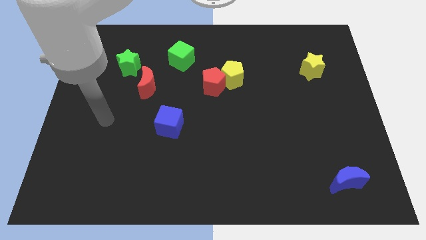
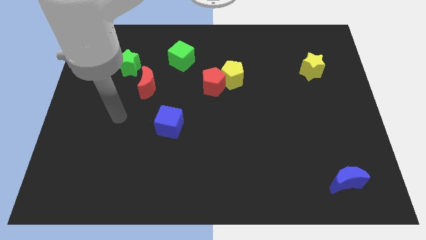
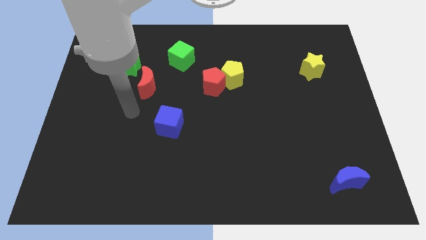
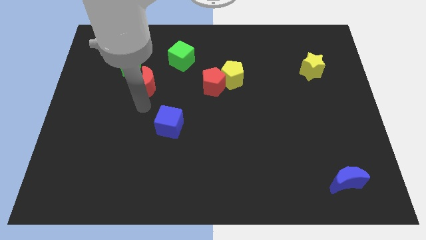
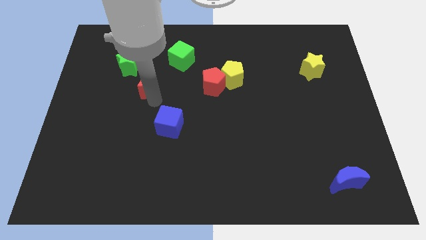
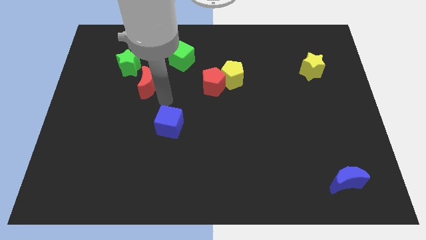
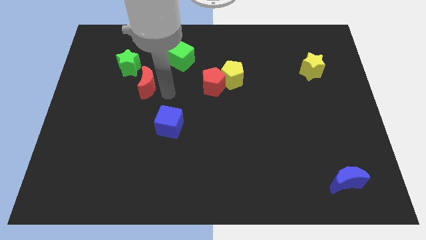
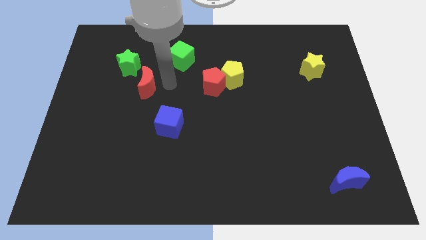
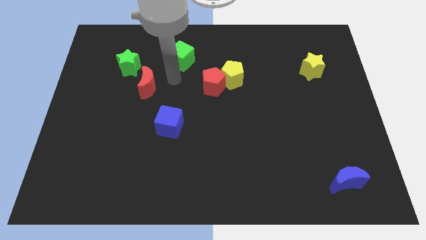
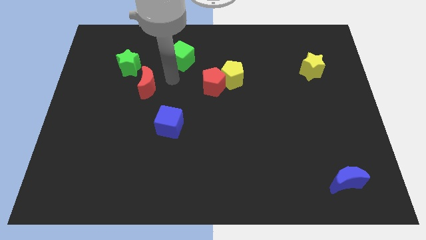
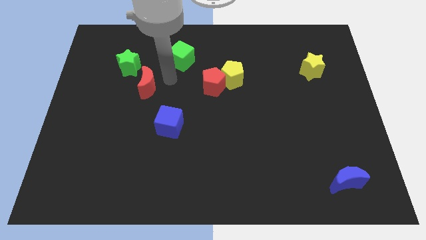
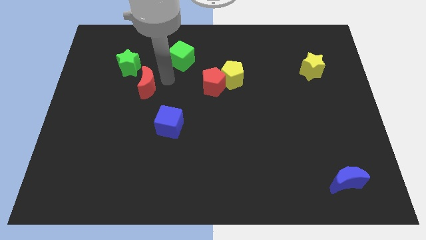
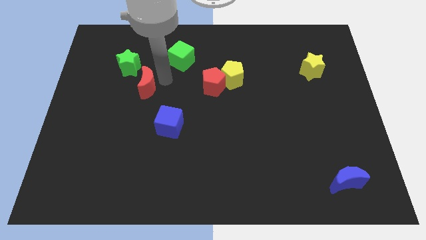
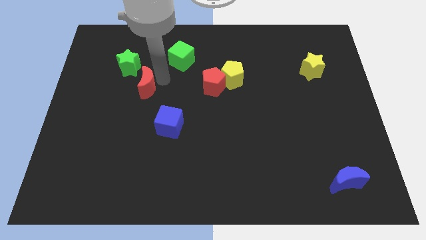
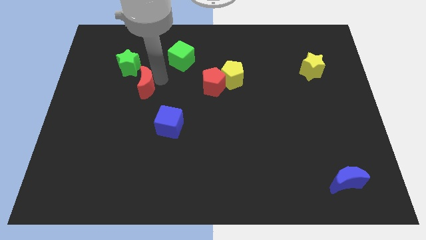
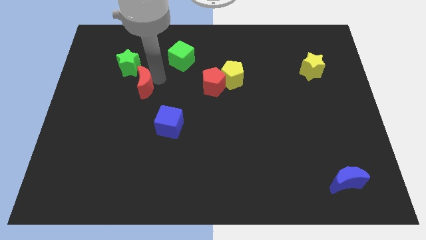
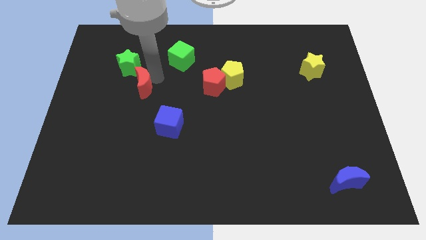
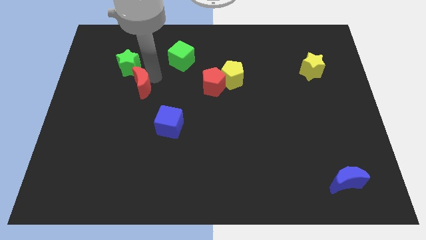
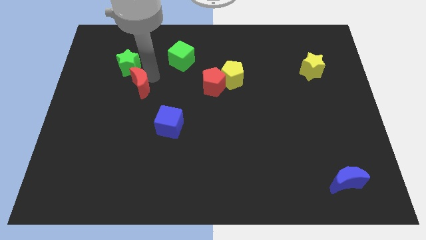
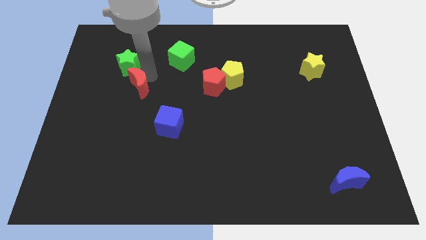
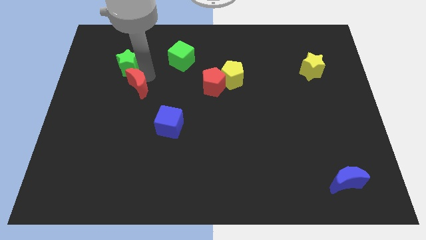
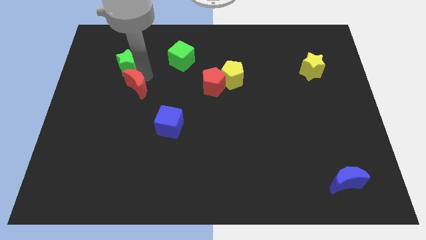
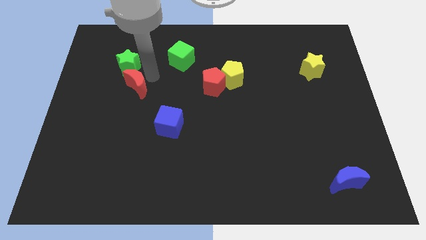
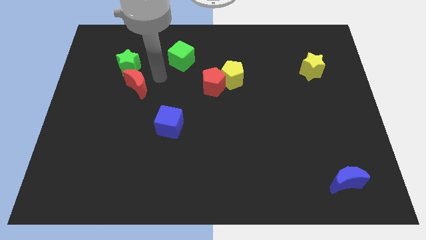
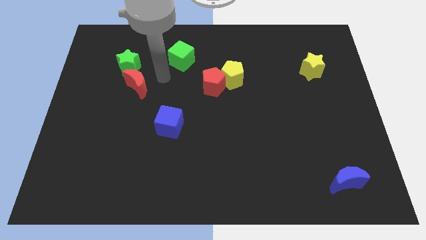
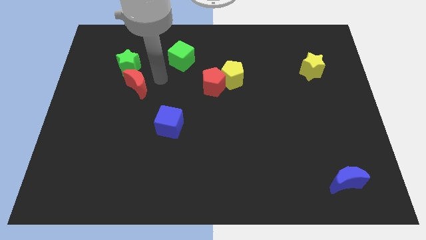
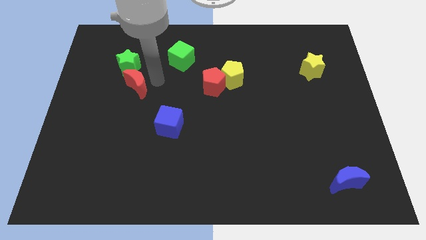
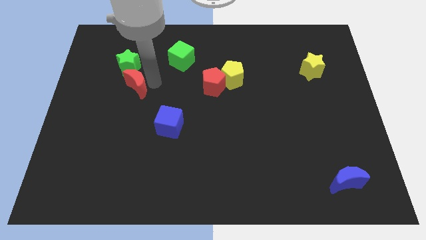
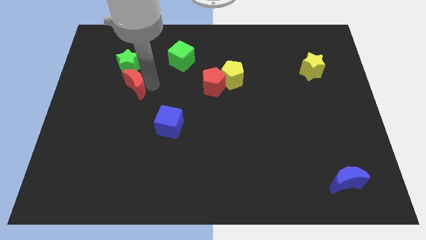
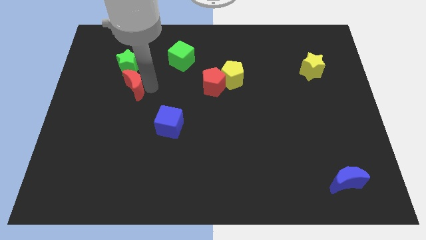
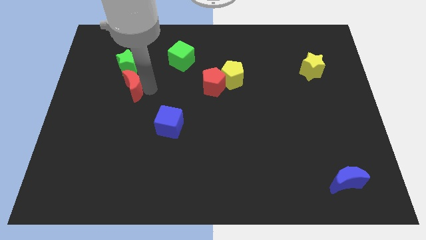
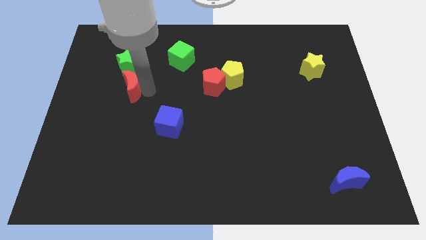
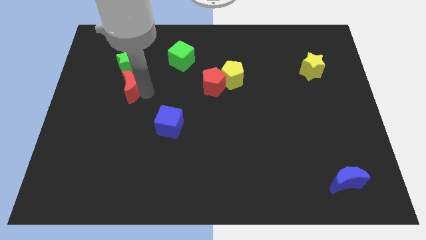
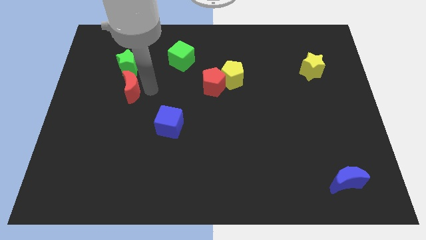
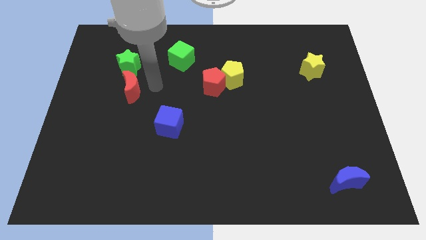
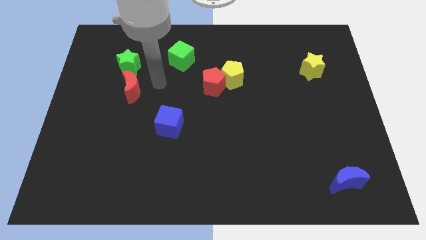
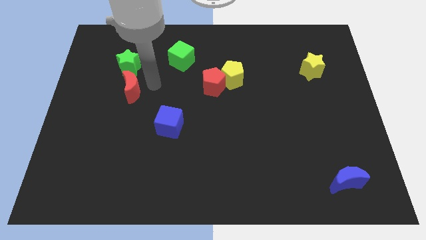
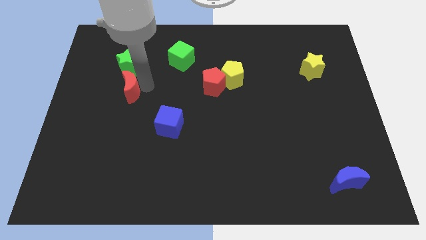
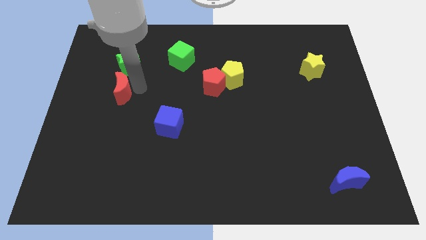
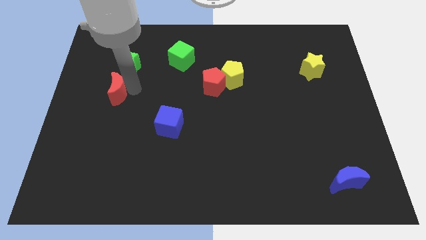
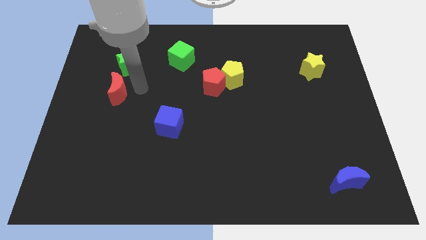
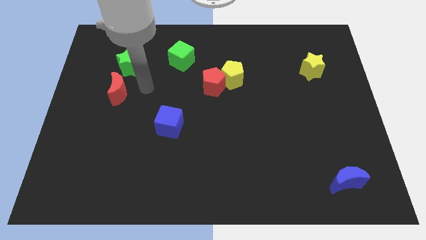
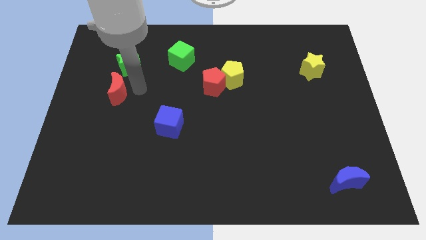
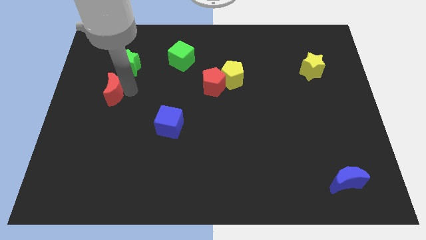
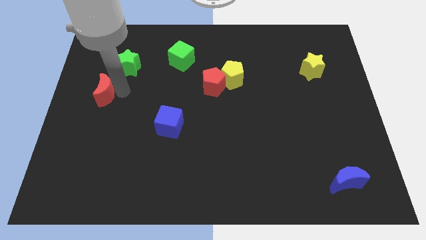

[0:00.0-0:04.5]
move the red moon to the center left

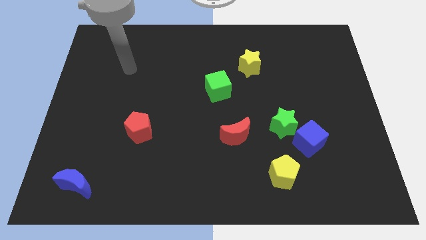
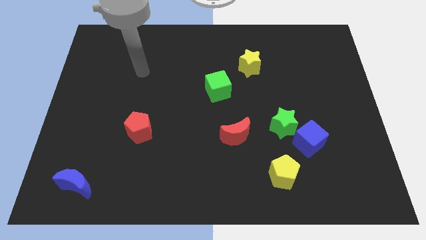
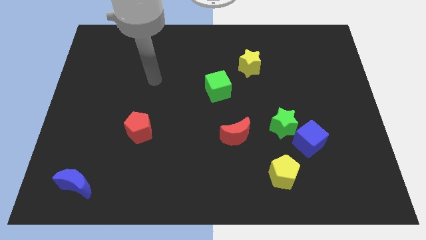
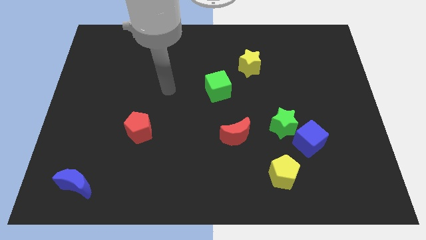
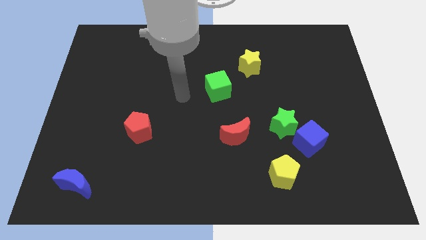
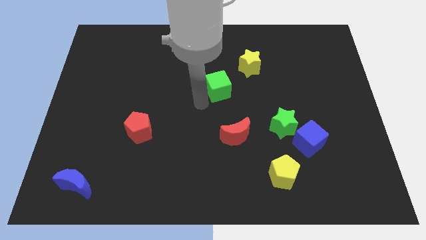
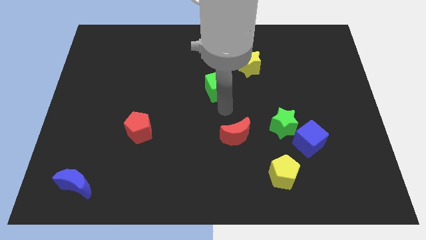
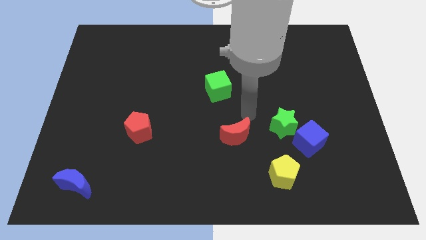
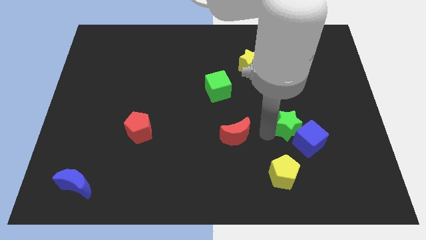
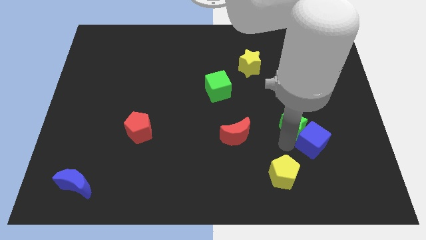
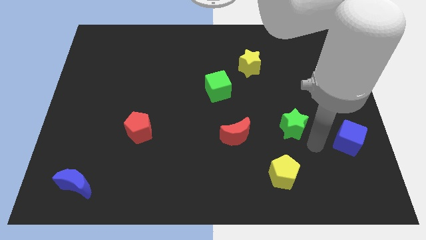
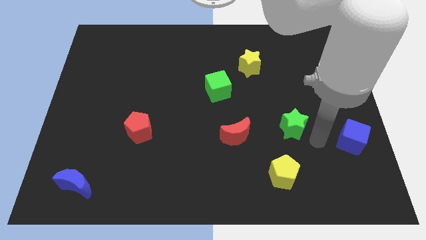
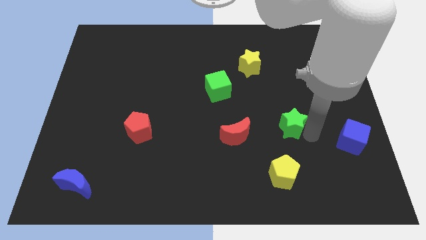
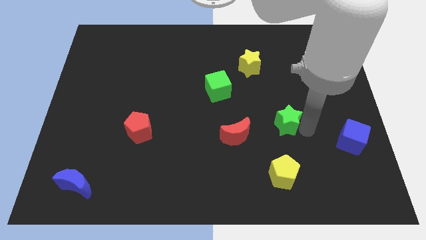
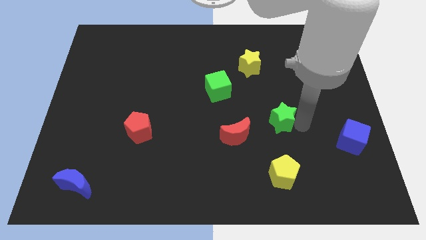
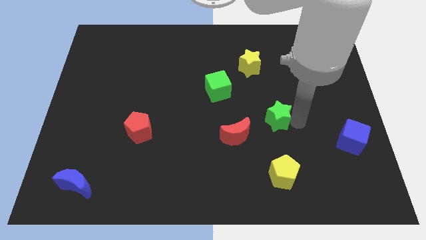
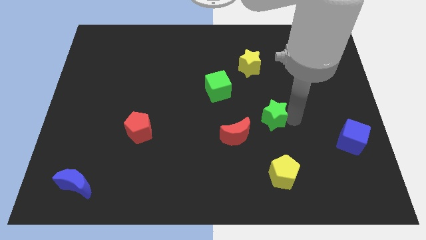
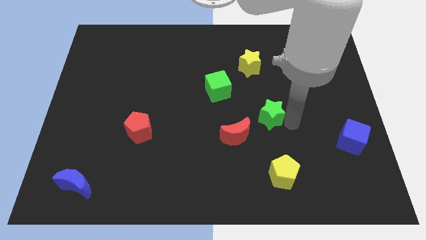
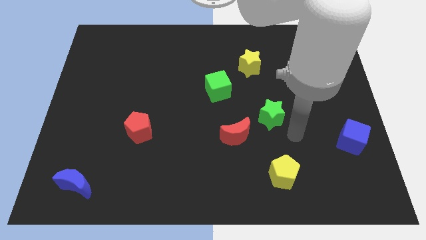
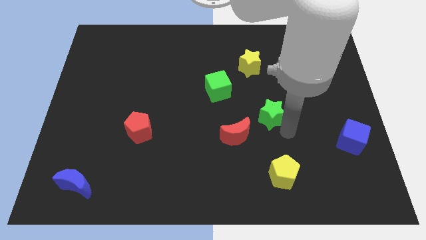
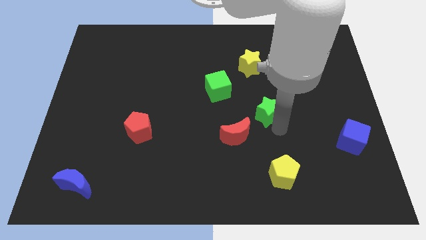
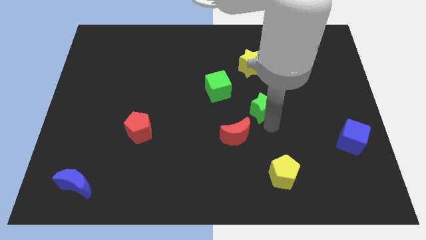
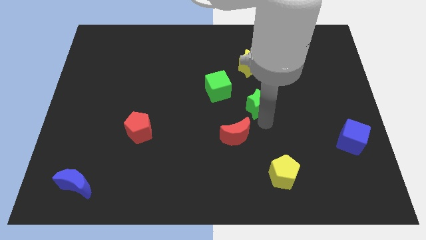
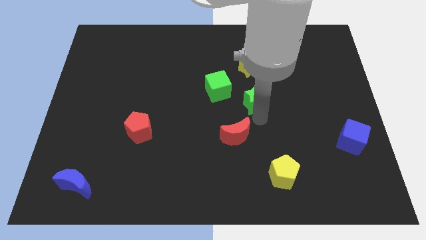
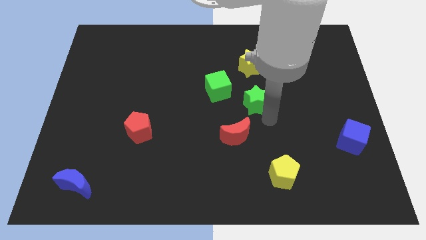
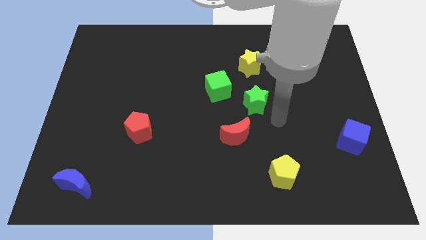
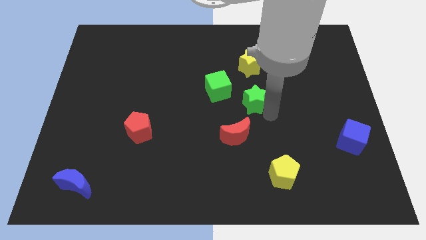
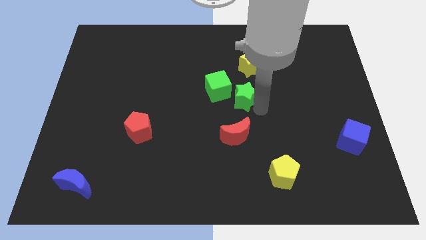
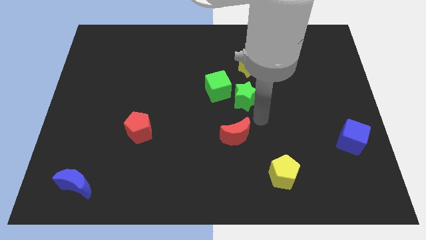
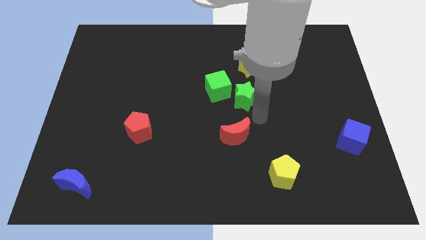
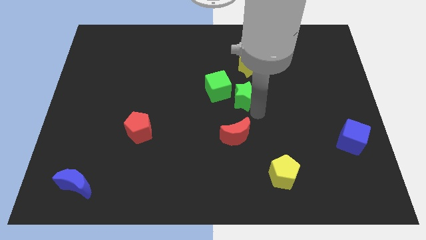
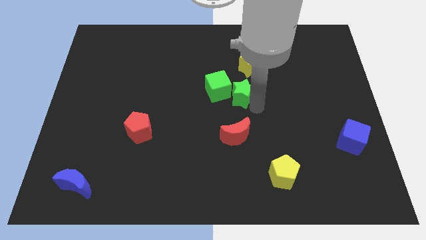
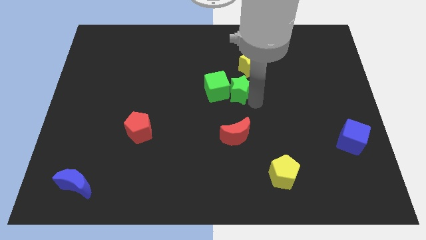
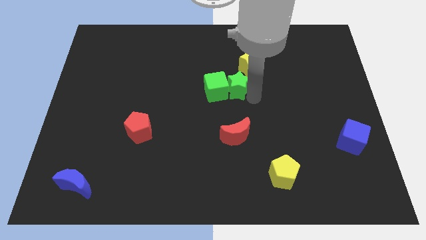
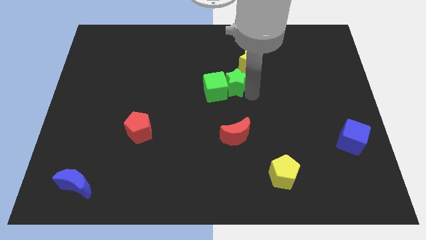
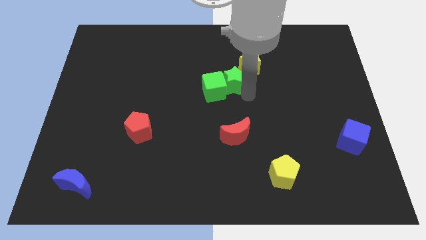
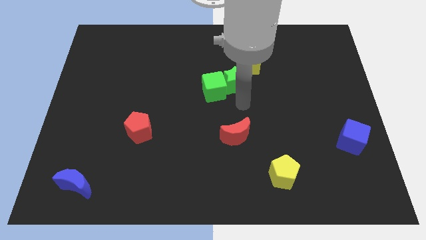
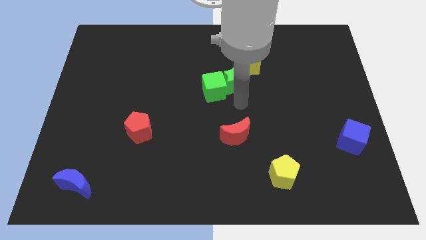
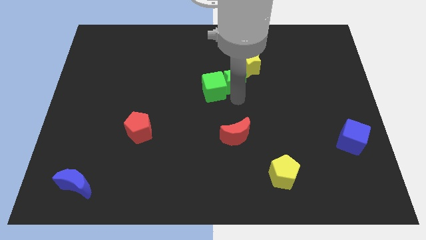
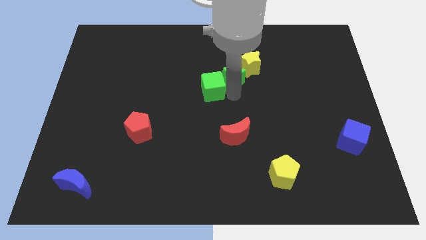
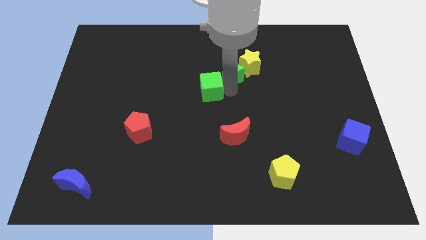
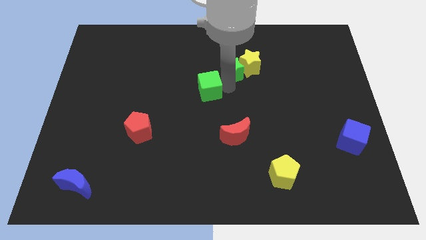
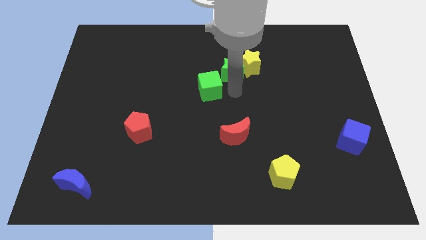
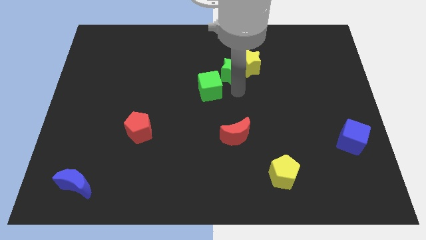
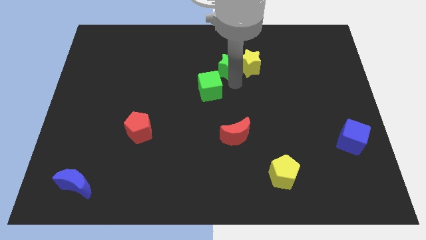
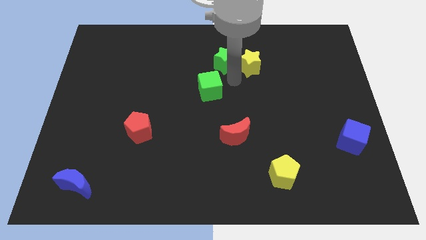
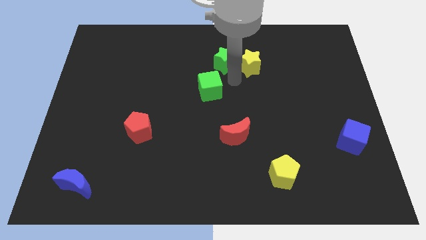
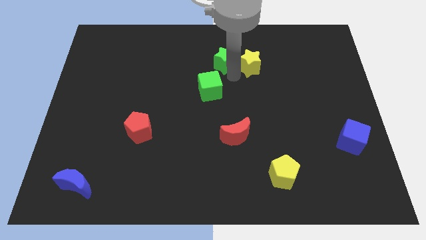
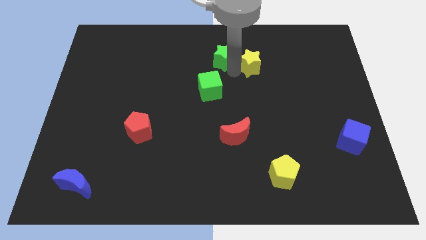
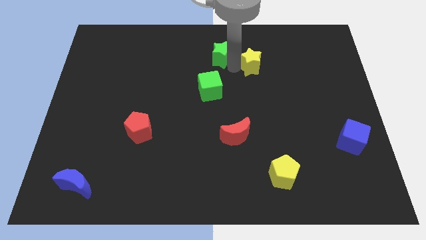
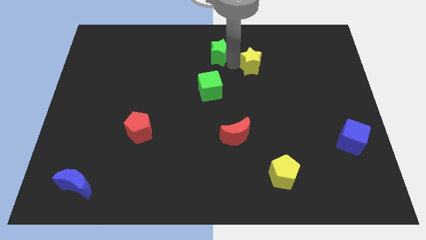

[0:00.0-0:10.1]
move the green star to the top
